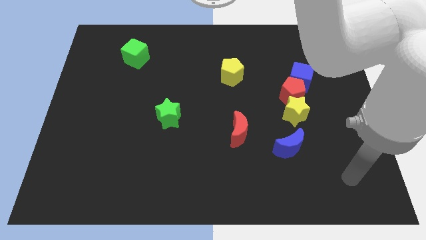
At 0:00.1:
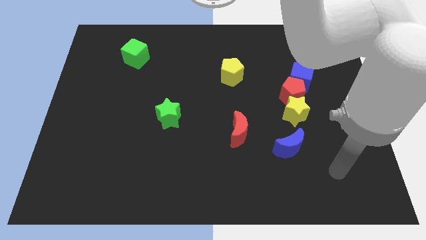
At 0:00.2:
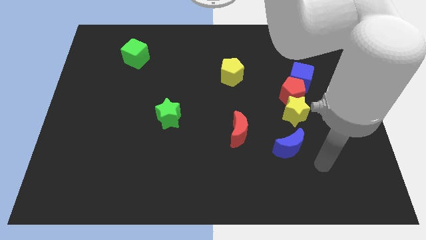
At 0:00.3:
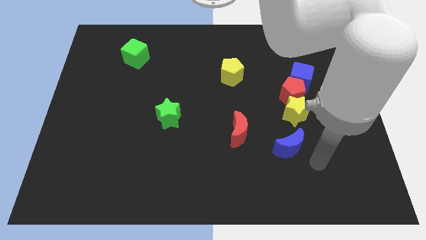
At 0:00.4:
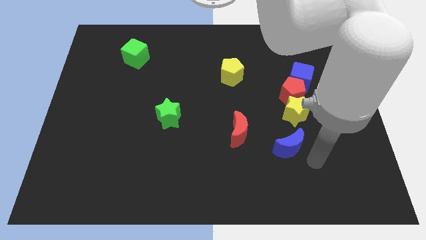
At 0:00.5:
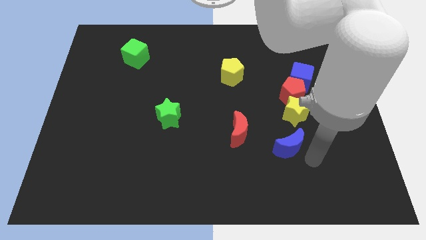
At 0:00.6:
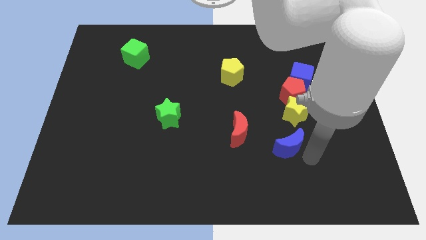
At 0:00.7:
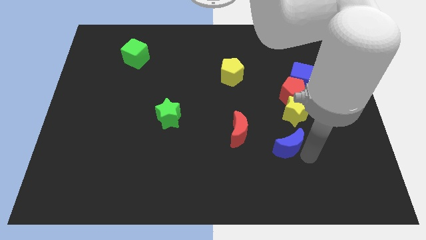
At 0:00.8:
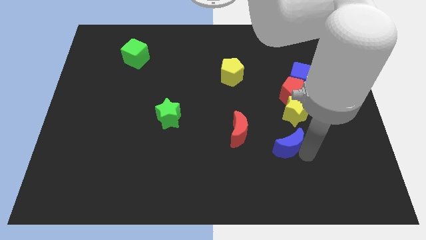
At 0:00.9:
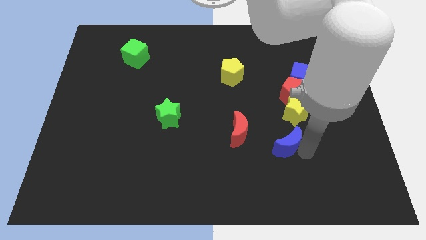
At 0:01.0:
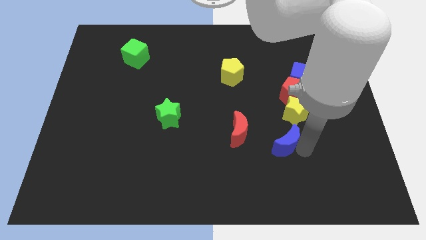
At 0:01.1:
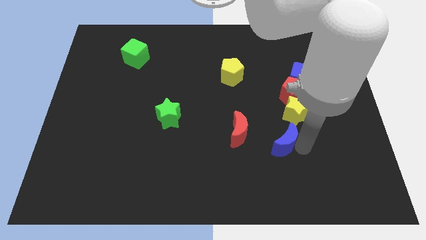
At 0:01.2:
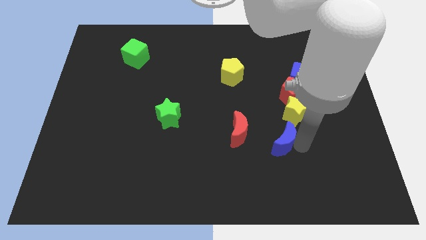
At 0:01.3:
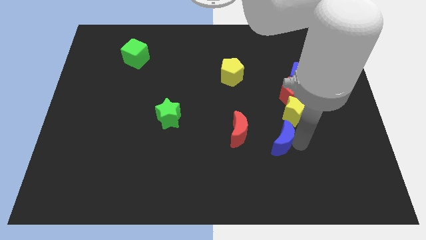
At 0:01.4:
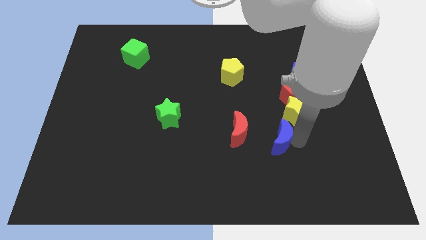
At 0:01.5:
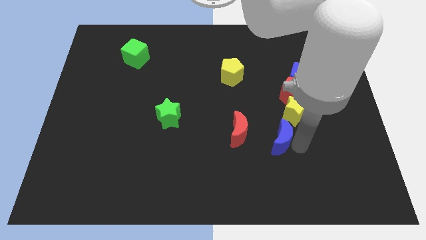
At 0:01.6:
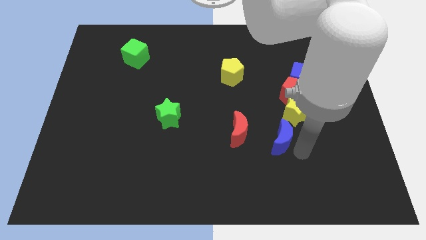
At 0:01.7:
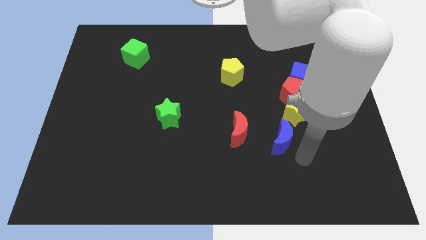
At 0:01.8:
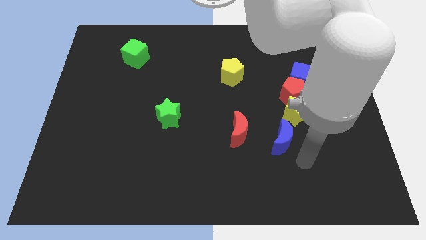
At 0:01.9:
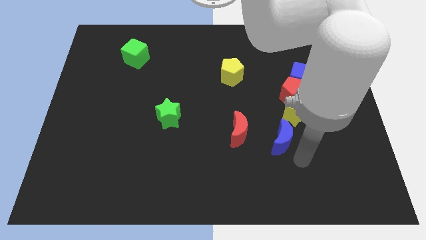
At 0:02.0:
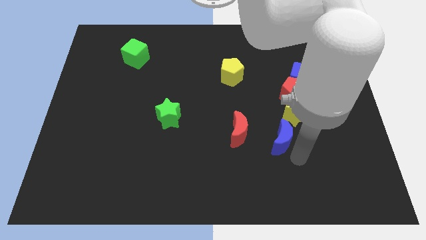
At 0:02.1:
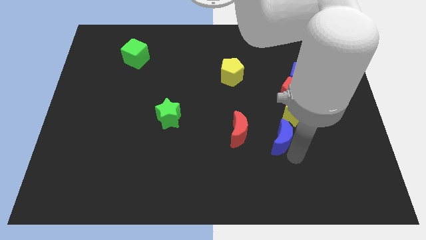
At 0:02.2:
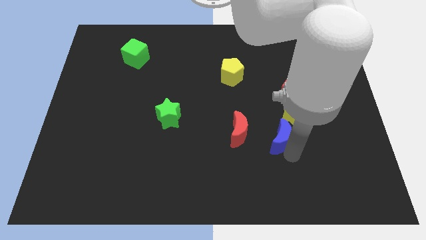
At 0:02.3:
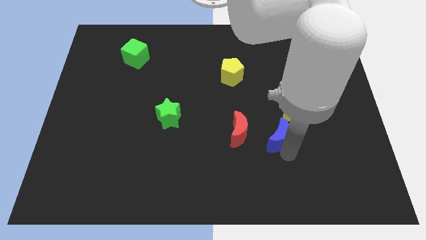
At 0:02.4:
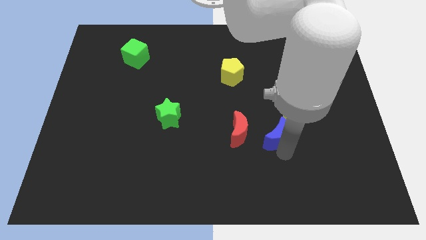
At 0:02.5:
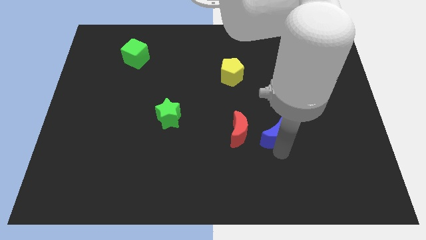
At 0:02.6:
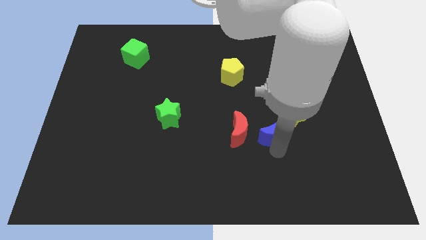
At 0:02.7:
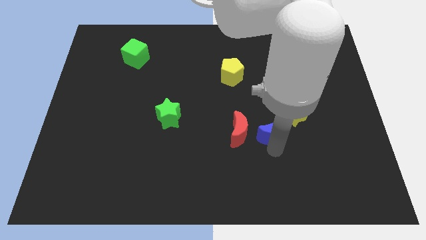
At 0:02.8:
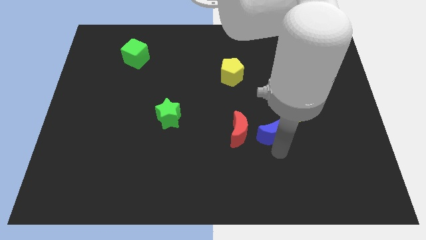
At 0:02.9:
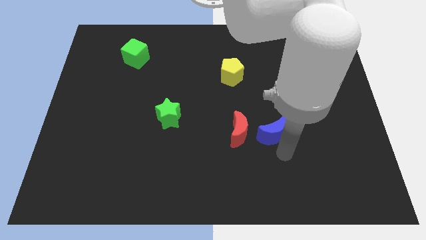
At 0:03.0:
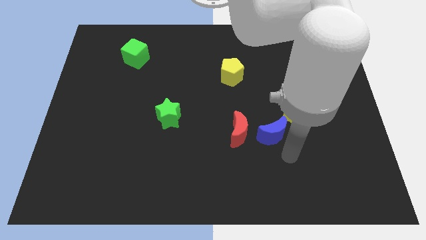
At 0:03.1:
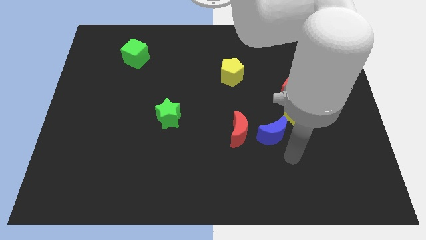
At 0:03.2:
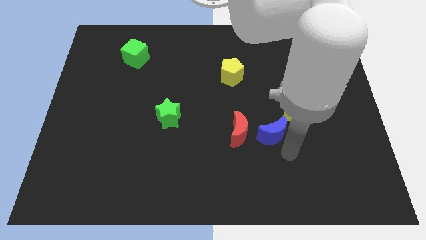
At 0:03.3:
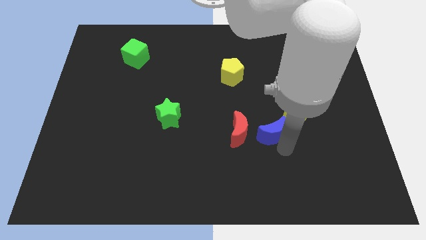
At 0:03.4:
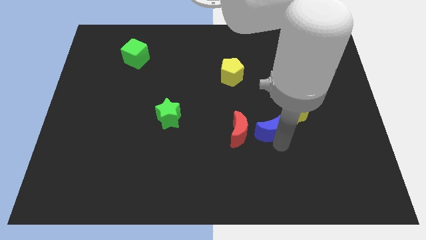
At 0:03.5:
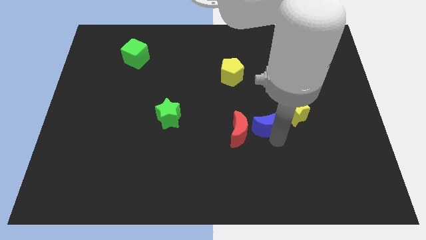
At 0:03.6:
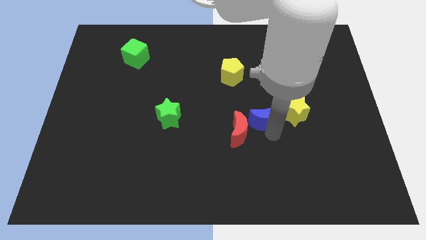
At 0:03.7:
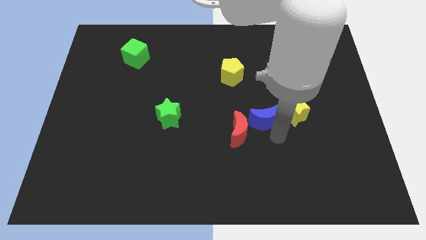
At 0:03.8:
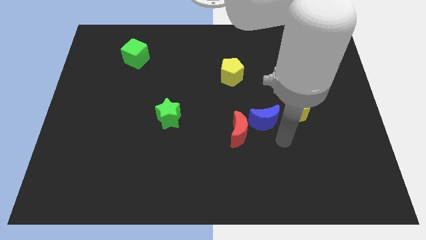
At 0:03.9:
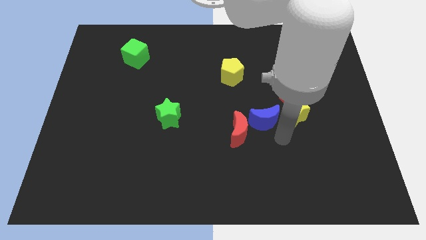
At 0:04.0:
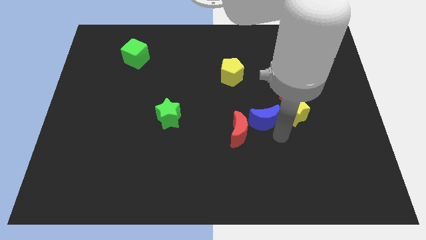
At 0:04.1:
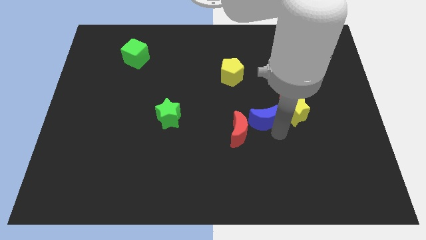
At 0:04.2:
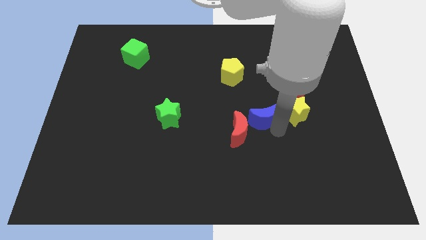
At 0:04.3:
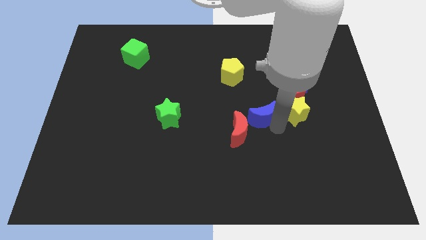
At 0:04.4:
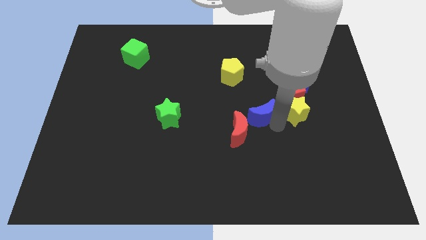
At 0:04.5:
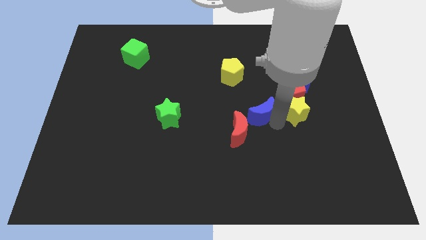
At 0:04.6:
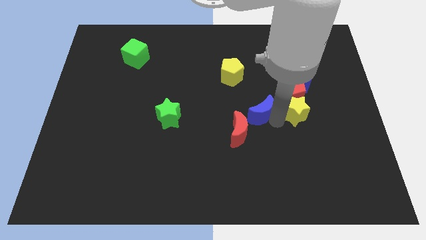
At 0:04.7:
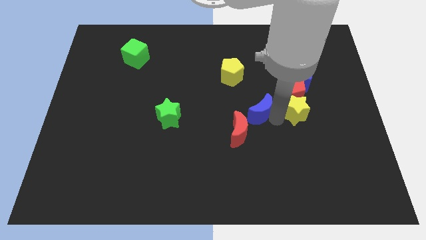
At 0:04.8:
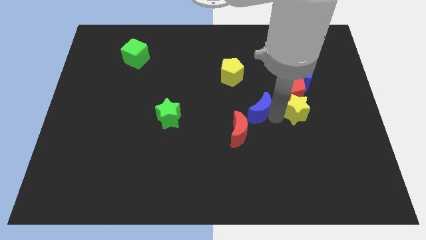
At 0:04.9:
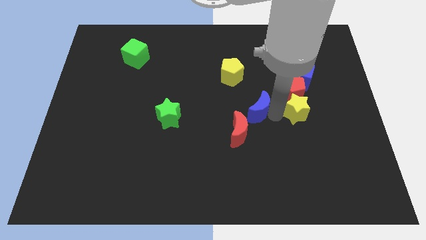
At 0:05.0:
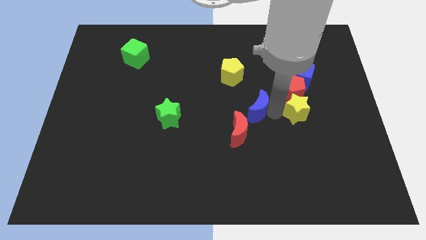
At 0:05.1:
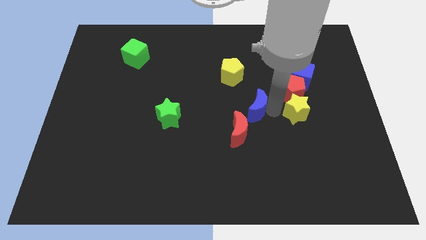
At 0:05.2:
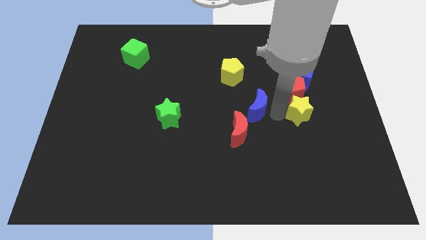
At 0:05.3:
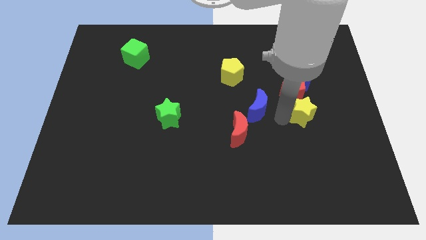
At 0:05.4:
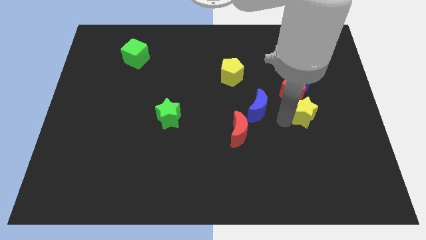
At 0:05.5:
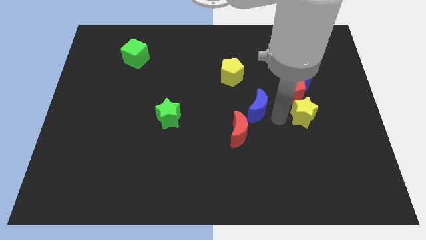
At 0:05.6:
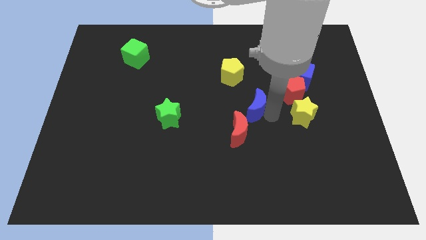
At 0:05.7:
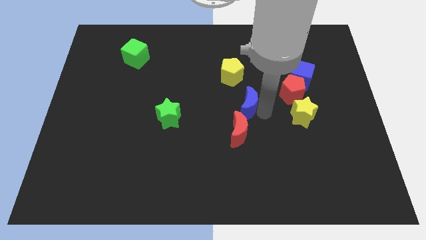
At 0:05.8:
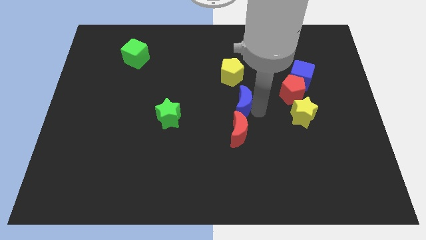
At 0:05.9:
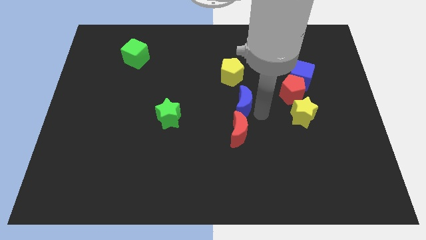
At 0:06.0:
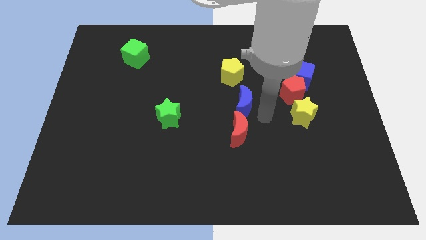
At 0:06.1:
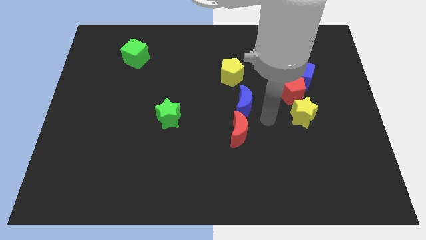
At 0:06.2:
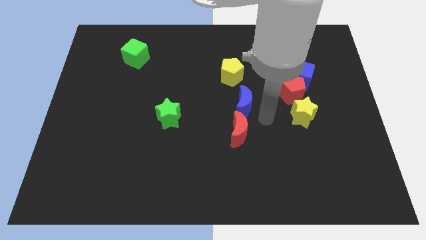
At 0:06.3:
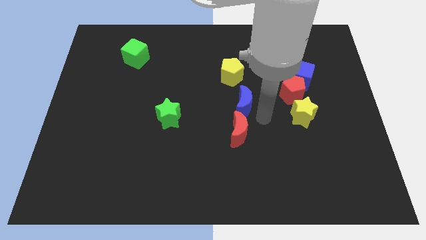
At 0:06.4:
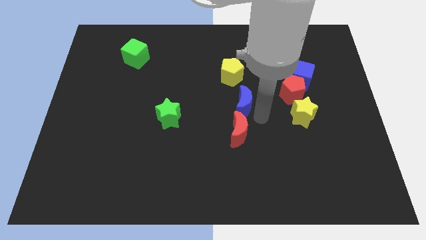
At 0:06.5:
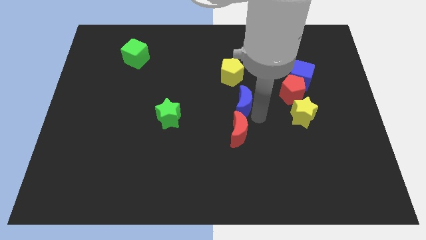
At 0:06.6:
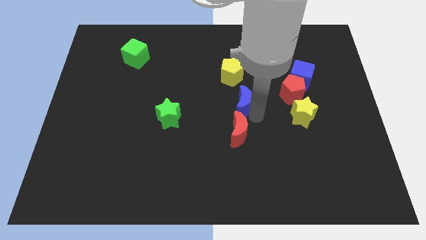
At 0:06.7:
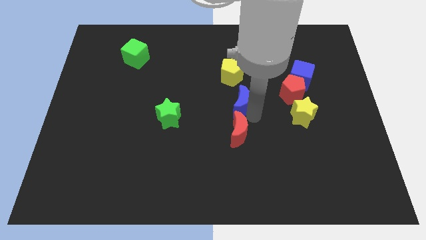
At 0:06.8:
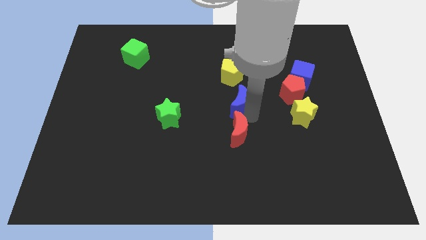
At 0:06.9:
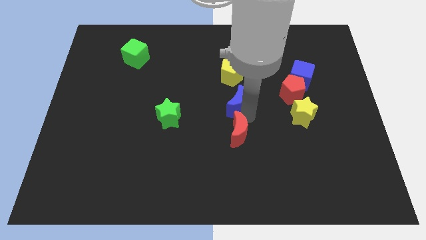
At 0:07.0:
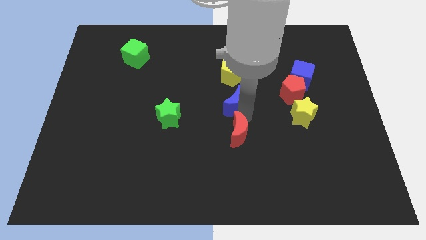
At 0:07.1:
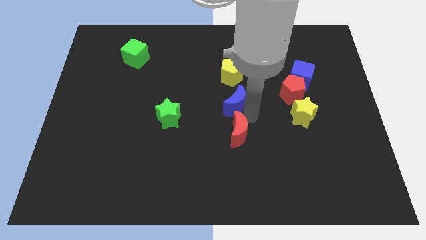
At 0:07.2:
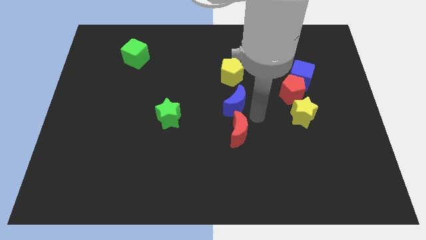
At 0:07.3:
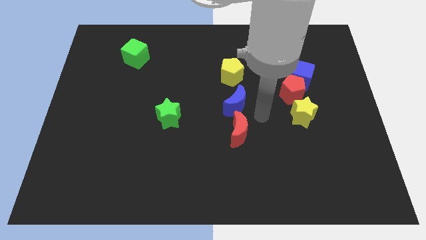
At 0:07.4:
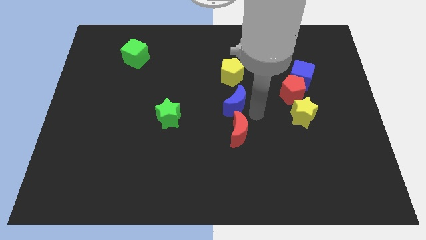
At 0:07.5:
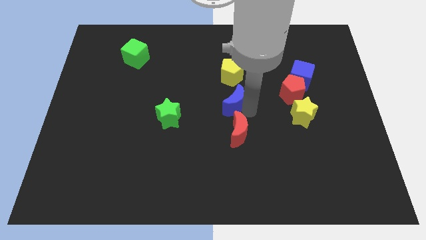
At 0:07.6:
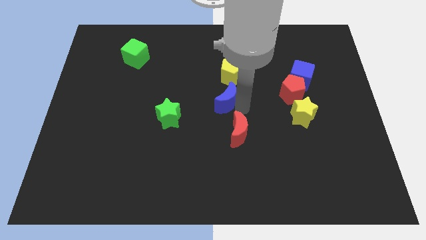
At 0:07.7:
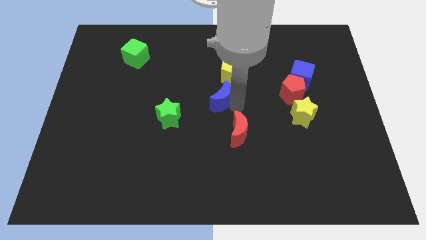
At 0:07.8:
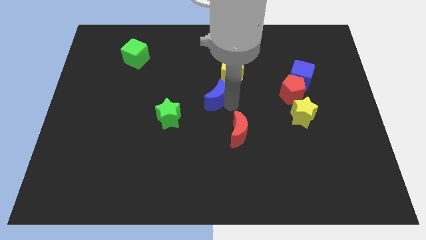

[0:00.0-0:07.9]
move the blue moon upwards and left diagonally

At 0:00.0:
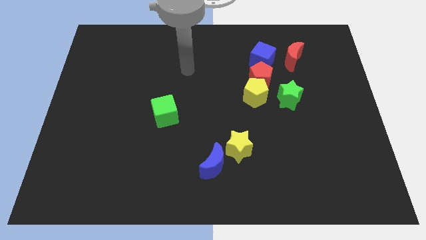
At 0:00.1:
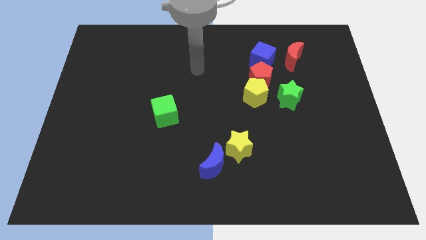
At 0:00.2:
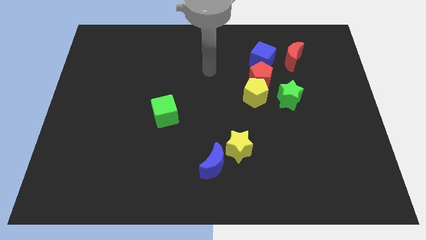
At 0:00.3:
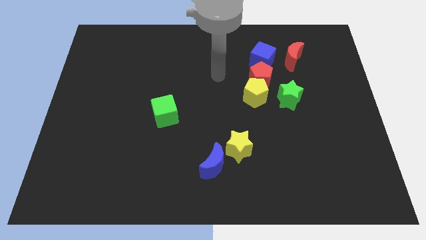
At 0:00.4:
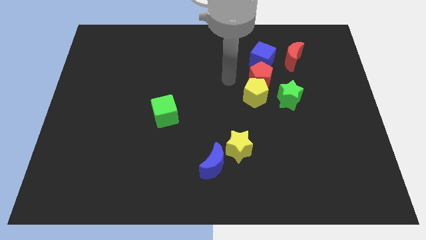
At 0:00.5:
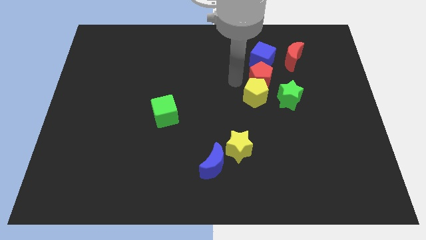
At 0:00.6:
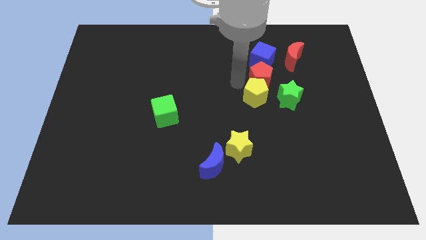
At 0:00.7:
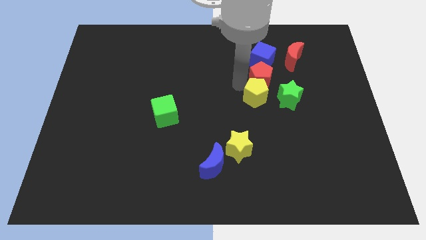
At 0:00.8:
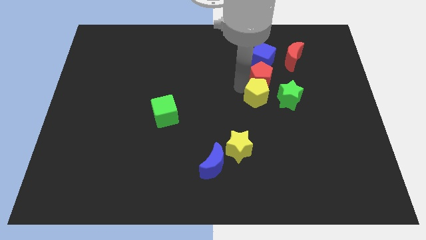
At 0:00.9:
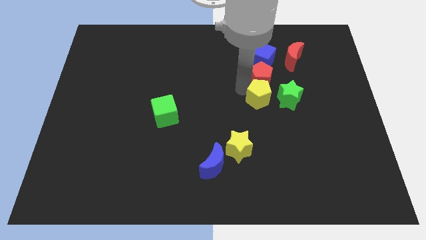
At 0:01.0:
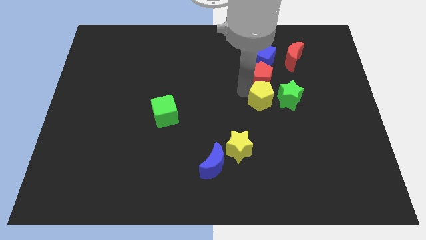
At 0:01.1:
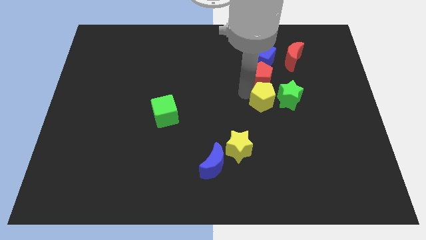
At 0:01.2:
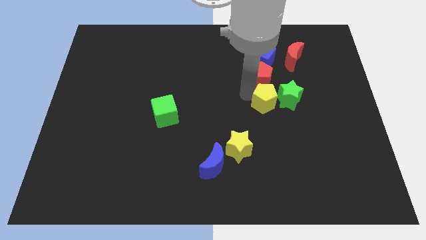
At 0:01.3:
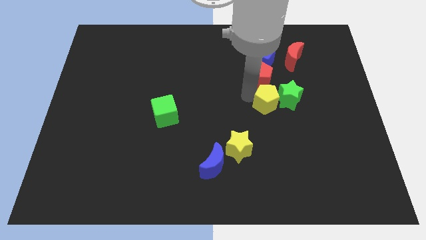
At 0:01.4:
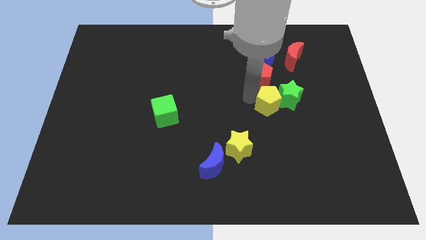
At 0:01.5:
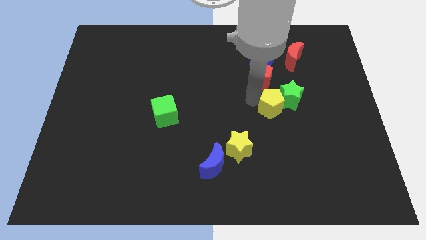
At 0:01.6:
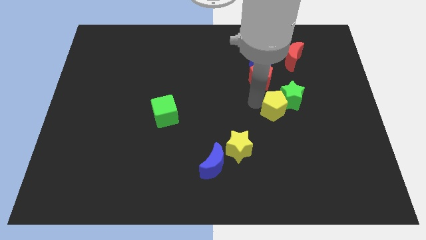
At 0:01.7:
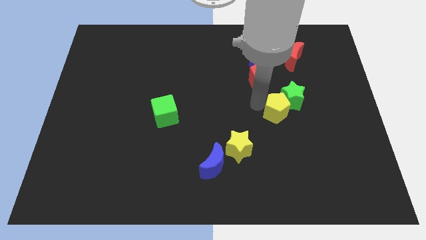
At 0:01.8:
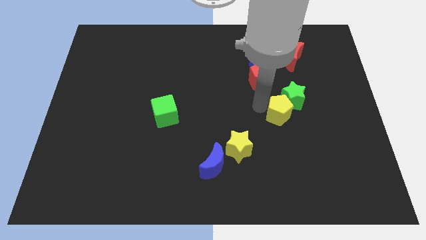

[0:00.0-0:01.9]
slide the yellow pentagon down and right diagonally a little bit
